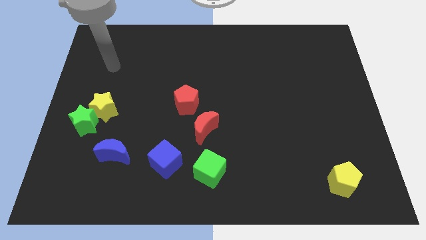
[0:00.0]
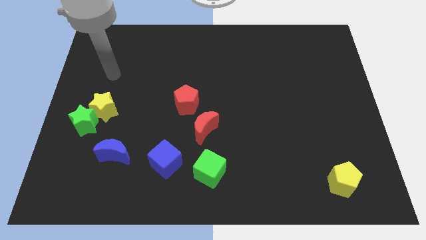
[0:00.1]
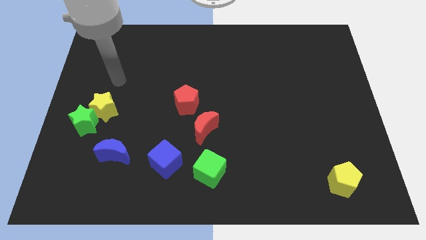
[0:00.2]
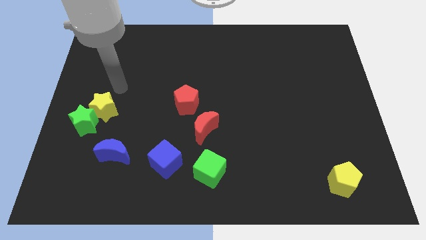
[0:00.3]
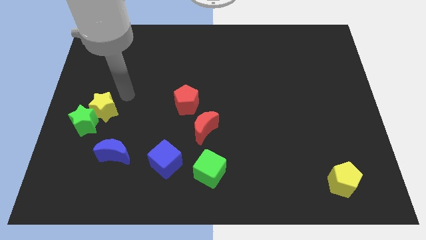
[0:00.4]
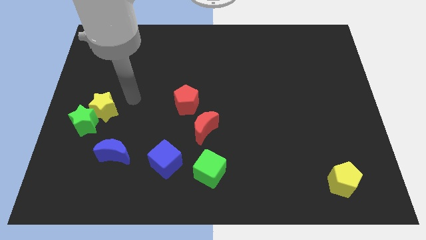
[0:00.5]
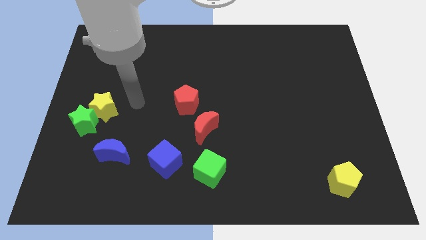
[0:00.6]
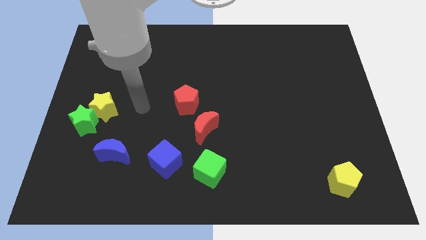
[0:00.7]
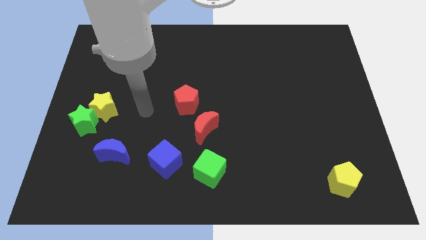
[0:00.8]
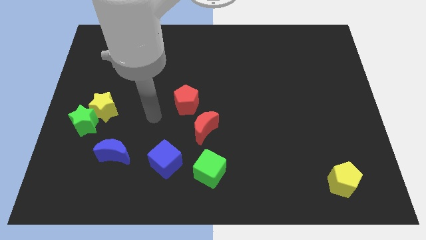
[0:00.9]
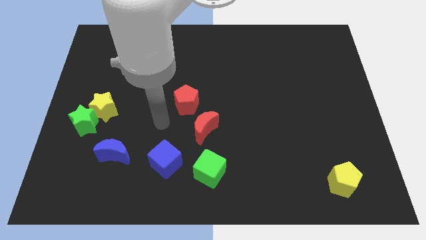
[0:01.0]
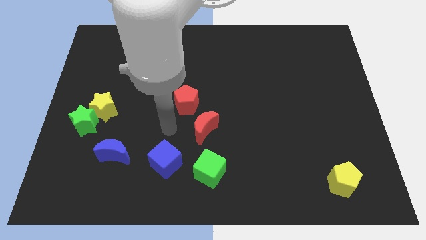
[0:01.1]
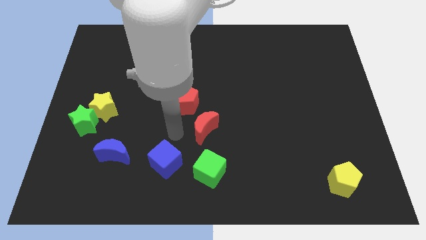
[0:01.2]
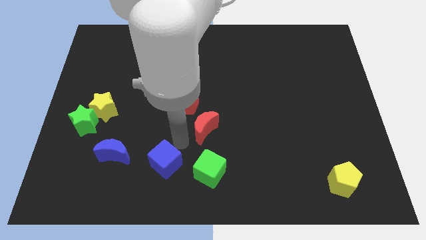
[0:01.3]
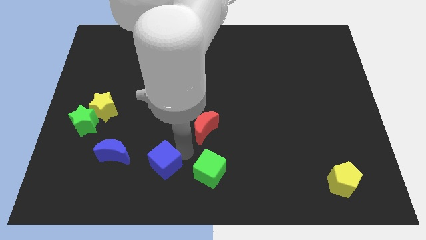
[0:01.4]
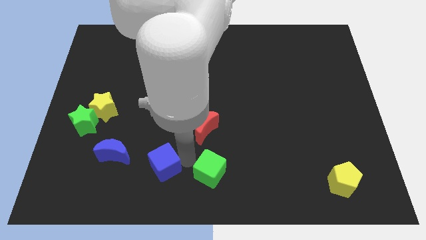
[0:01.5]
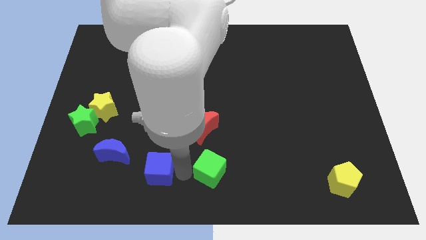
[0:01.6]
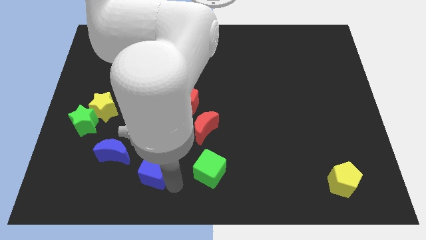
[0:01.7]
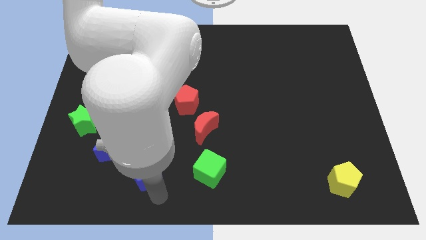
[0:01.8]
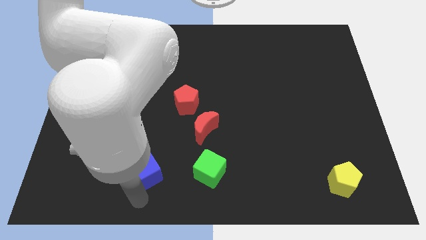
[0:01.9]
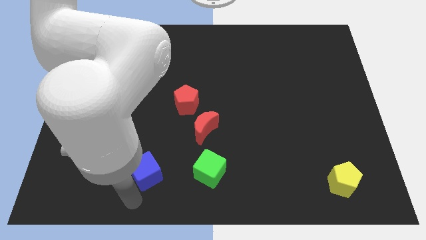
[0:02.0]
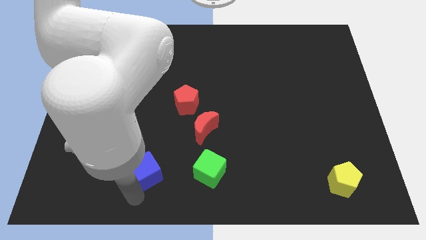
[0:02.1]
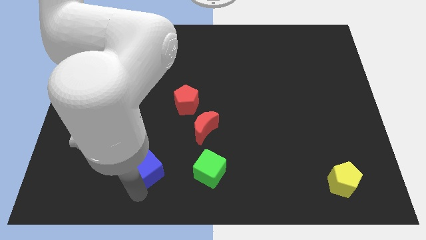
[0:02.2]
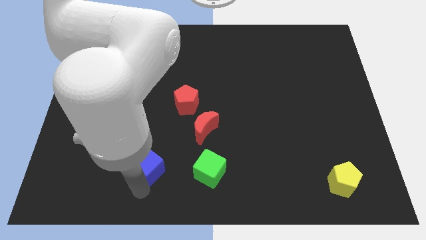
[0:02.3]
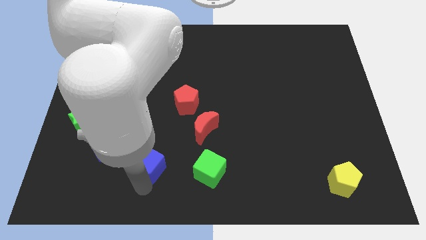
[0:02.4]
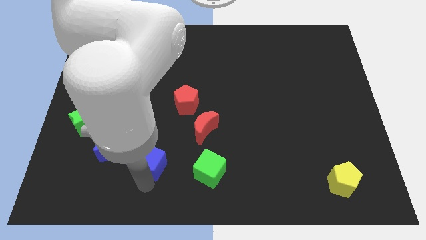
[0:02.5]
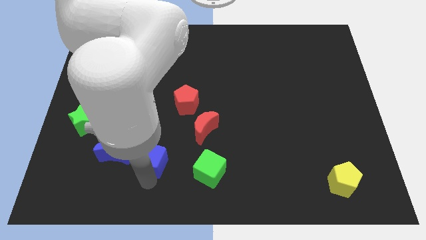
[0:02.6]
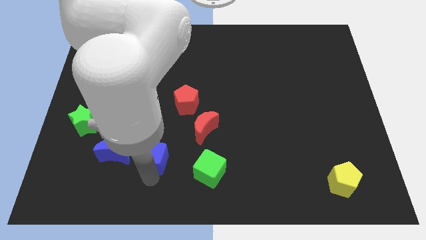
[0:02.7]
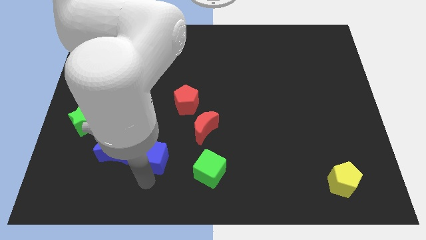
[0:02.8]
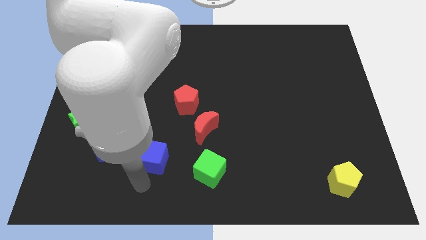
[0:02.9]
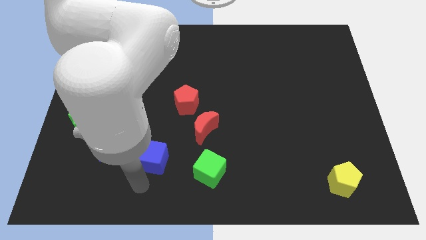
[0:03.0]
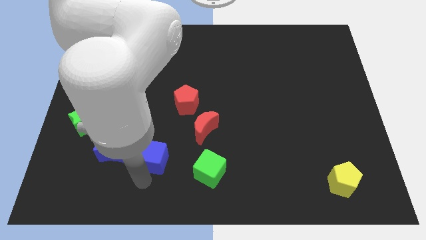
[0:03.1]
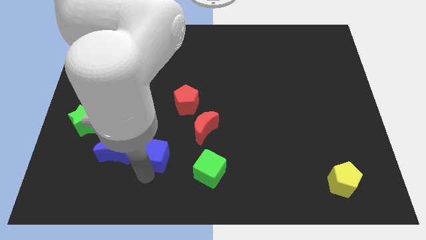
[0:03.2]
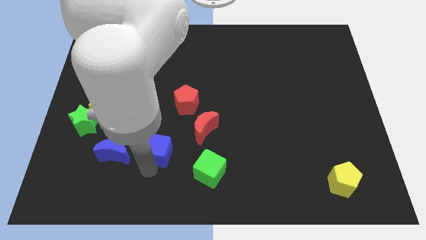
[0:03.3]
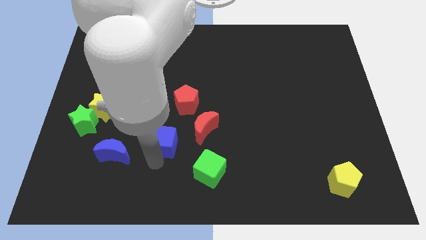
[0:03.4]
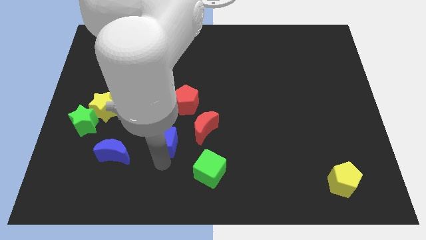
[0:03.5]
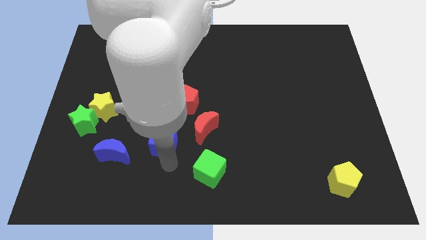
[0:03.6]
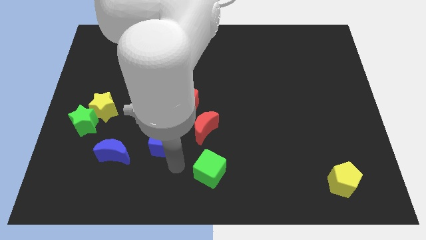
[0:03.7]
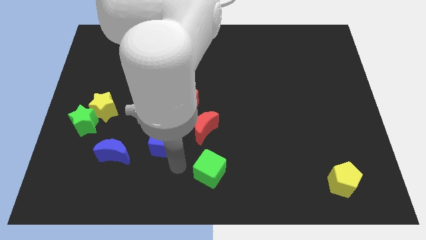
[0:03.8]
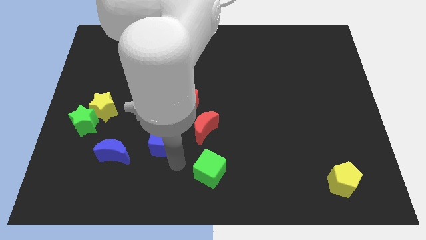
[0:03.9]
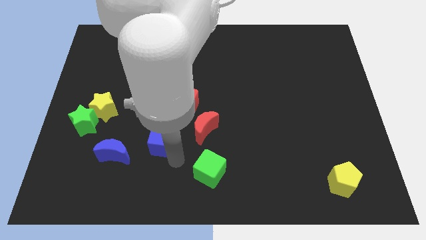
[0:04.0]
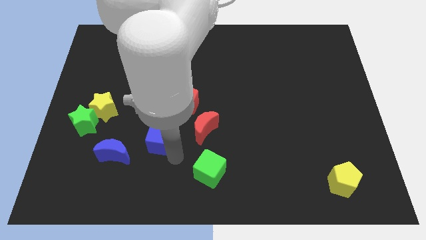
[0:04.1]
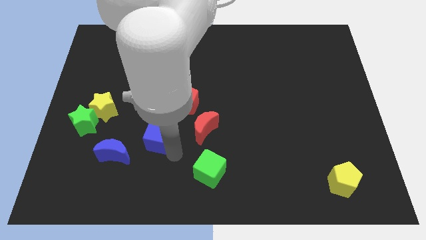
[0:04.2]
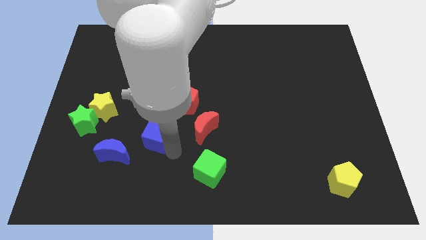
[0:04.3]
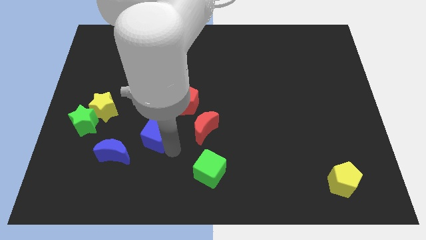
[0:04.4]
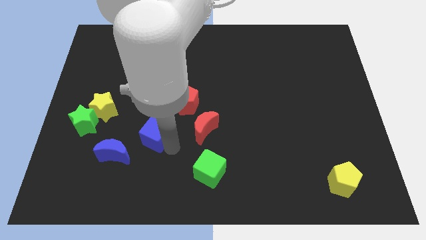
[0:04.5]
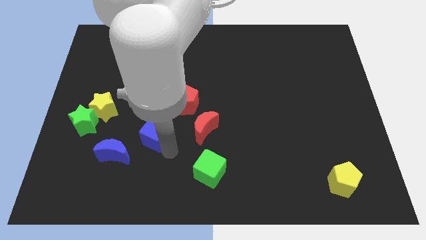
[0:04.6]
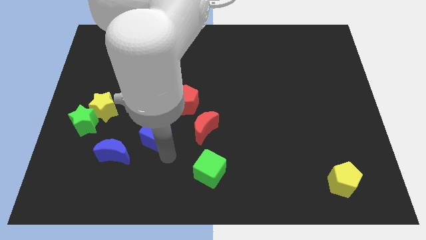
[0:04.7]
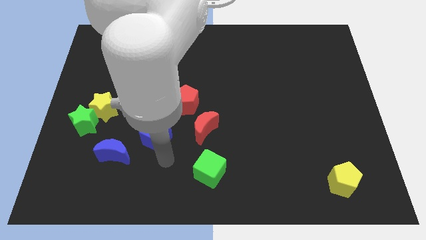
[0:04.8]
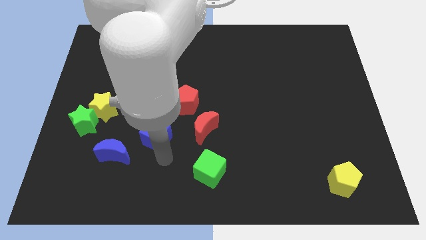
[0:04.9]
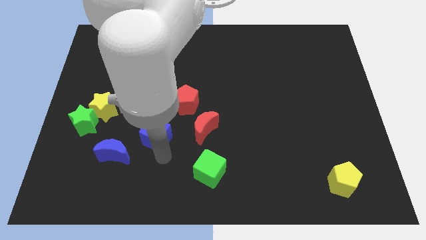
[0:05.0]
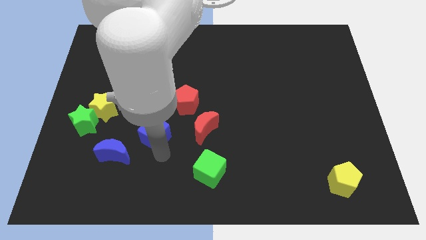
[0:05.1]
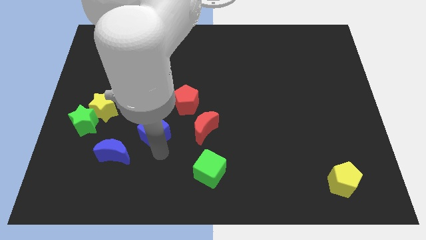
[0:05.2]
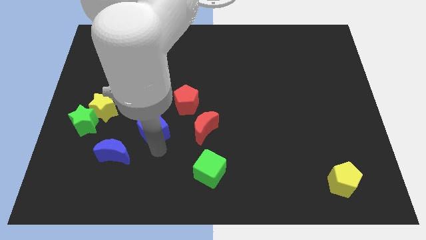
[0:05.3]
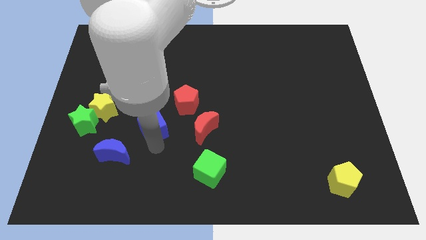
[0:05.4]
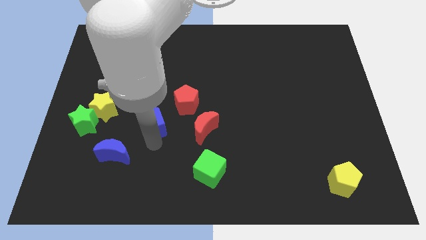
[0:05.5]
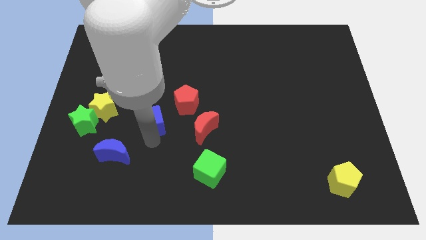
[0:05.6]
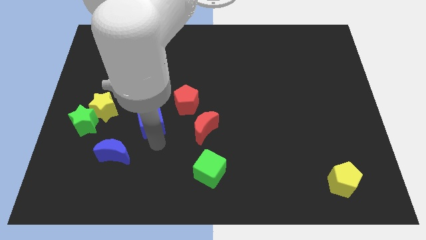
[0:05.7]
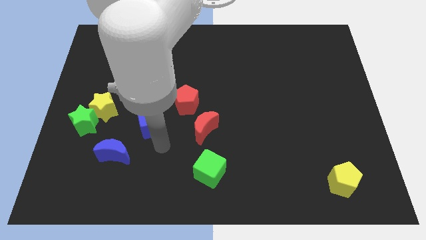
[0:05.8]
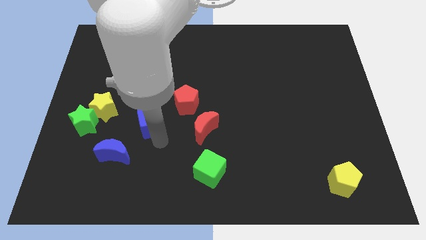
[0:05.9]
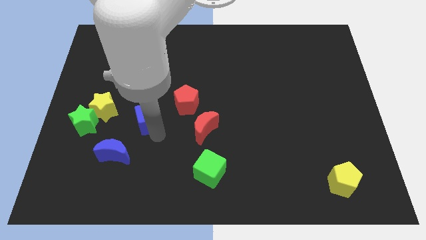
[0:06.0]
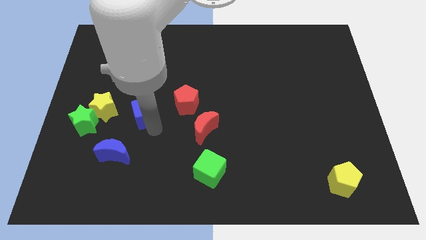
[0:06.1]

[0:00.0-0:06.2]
put the blue cube to the left of the red pentagon

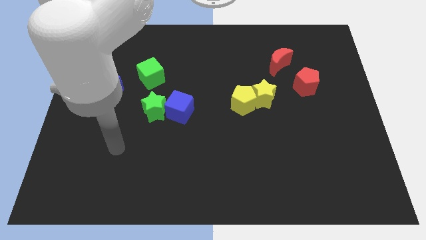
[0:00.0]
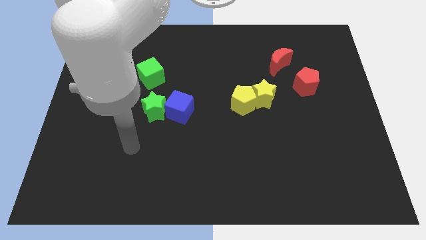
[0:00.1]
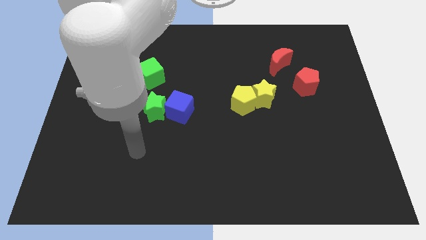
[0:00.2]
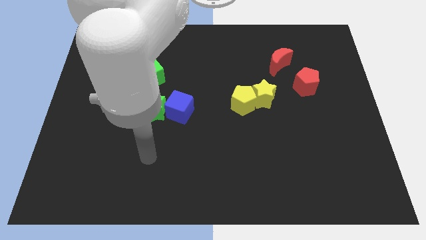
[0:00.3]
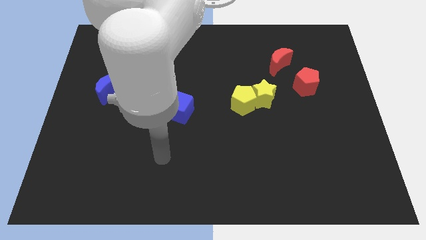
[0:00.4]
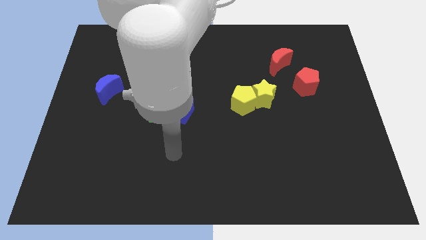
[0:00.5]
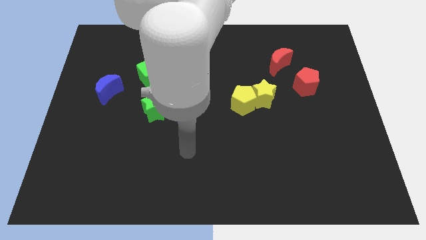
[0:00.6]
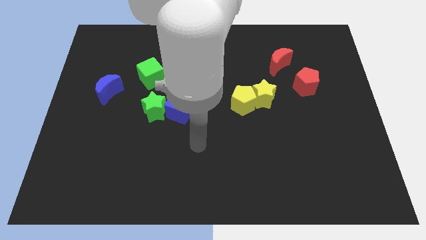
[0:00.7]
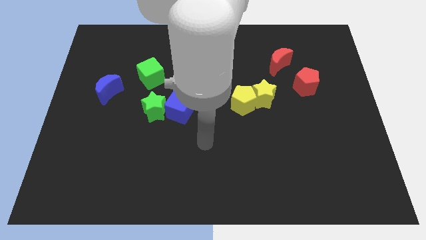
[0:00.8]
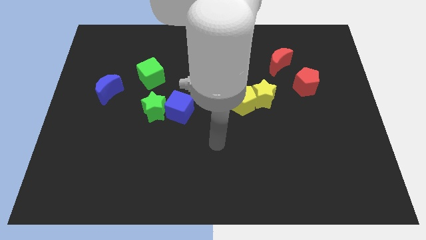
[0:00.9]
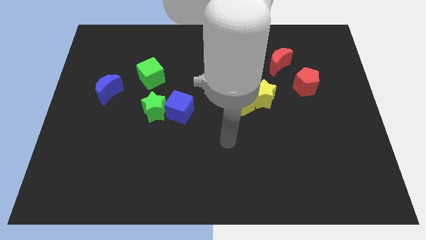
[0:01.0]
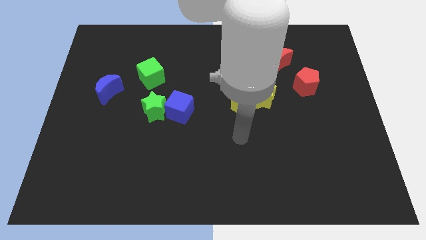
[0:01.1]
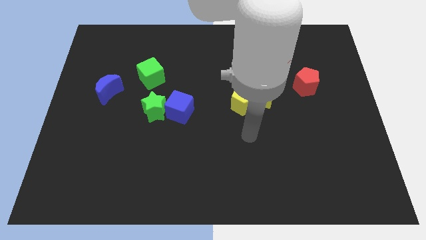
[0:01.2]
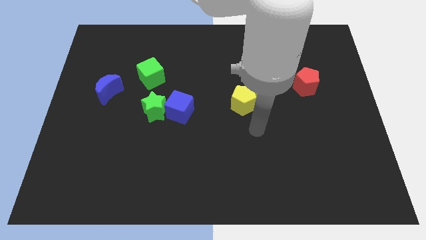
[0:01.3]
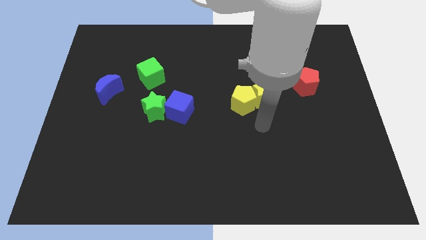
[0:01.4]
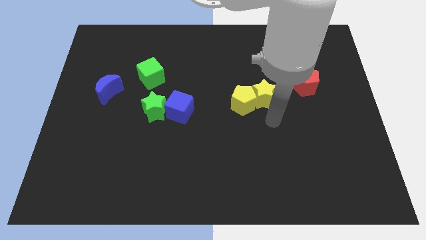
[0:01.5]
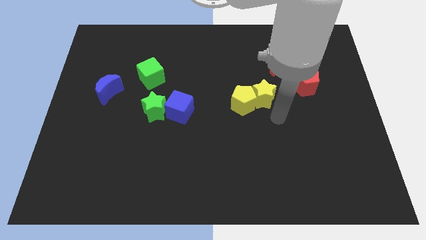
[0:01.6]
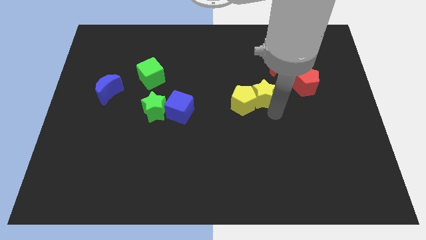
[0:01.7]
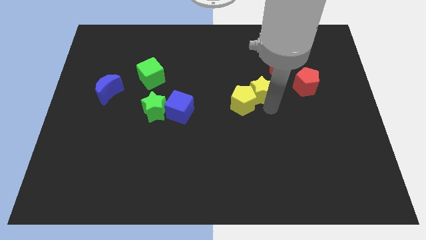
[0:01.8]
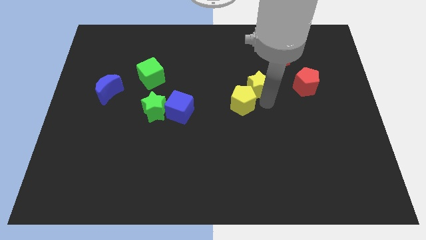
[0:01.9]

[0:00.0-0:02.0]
push the yellow star to the top of the yellow pentagon

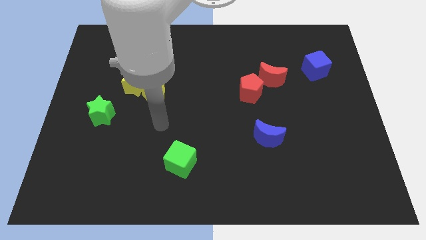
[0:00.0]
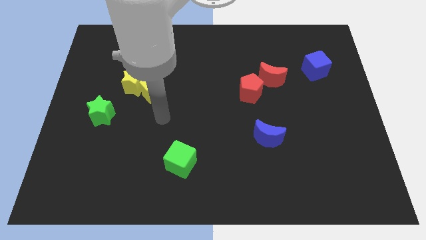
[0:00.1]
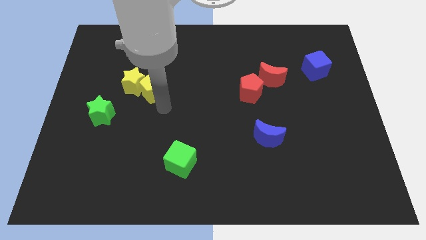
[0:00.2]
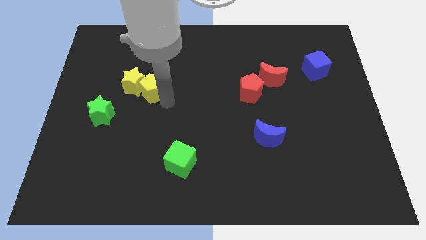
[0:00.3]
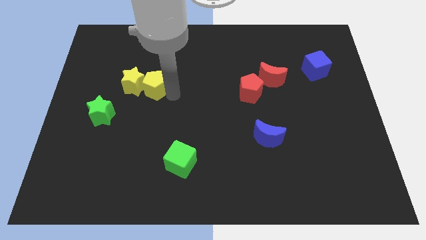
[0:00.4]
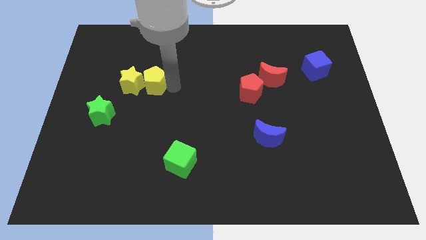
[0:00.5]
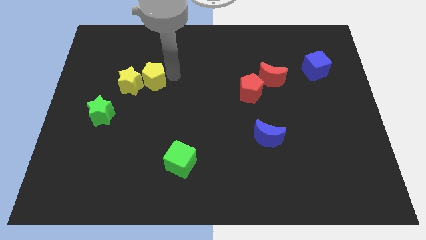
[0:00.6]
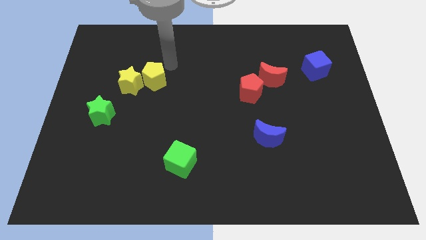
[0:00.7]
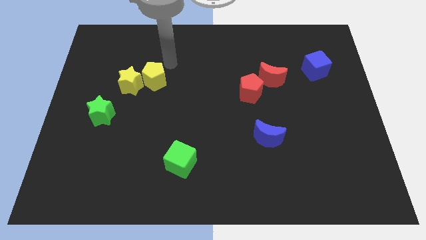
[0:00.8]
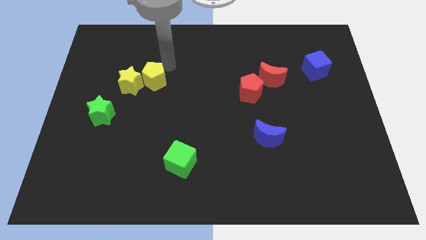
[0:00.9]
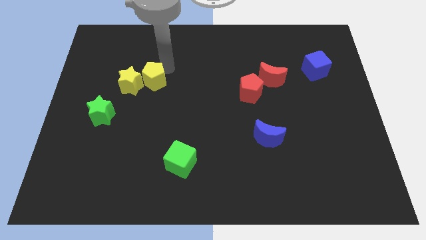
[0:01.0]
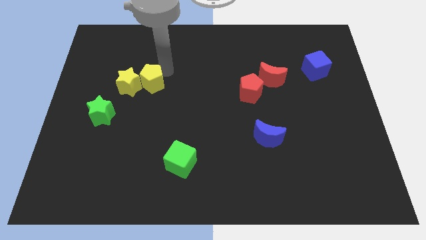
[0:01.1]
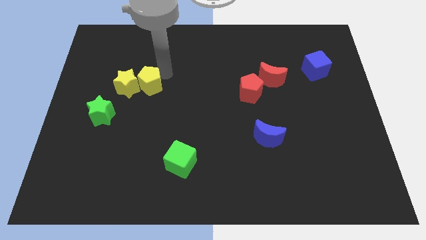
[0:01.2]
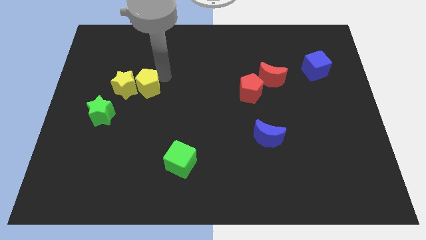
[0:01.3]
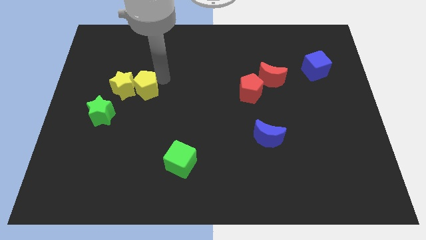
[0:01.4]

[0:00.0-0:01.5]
put the yellow pentagon to the top right side of the green star
